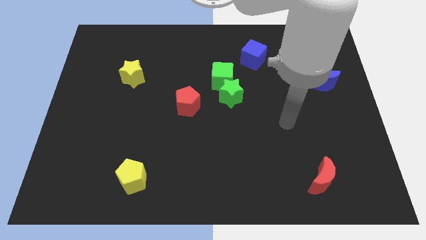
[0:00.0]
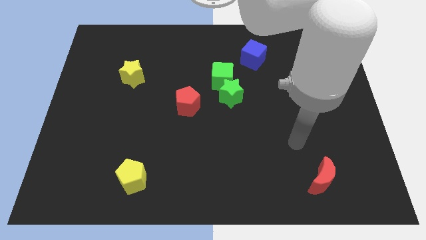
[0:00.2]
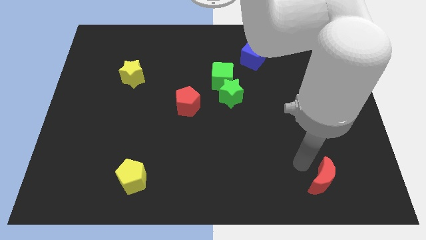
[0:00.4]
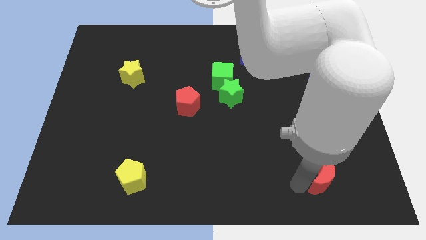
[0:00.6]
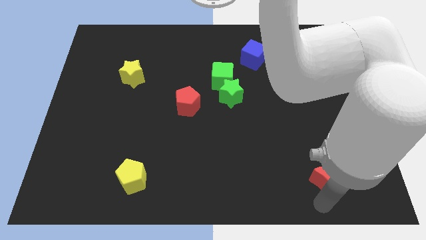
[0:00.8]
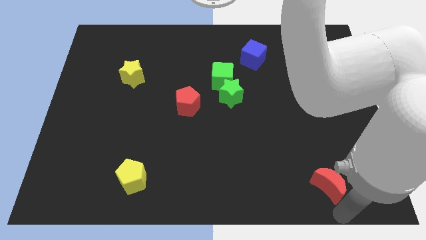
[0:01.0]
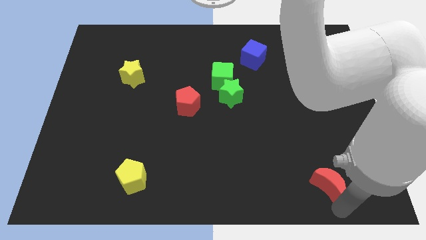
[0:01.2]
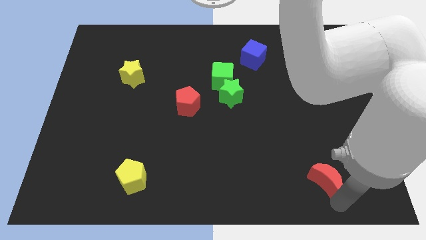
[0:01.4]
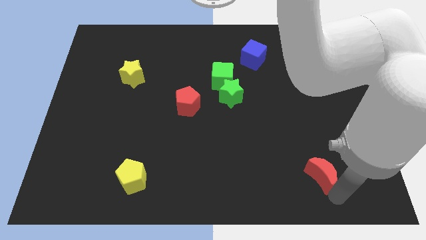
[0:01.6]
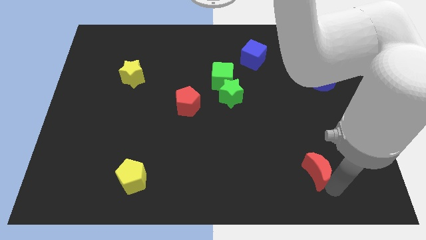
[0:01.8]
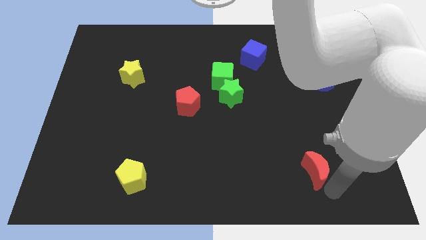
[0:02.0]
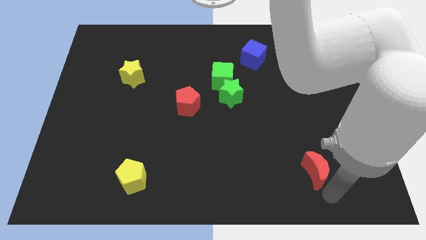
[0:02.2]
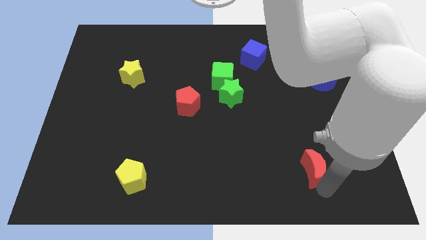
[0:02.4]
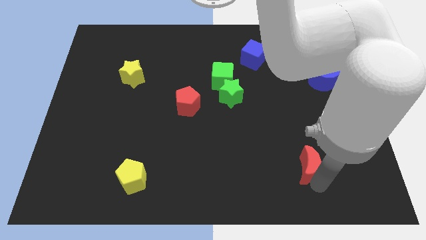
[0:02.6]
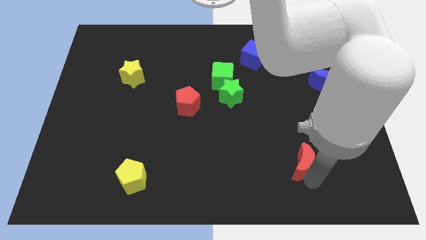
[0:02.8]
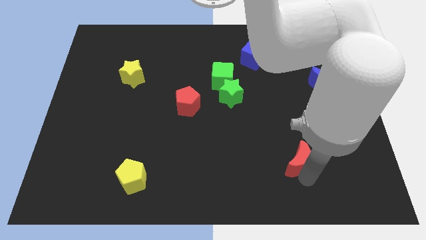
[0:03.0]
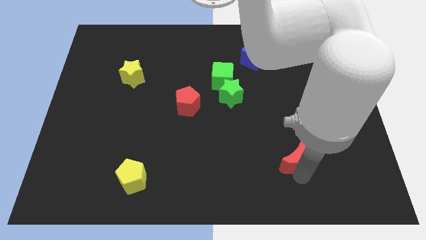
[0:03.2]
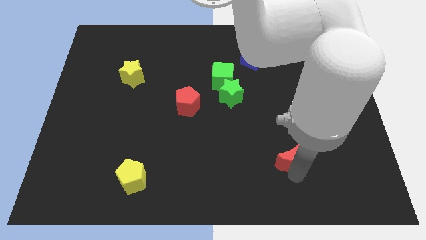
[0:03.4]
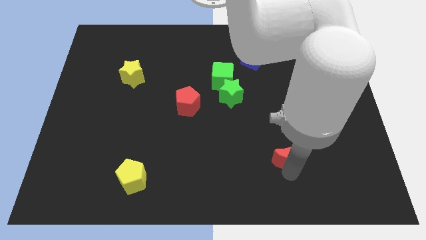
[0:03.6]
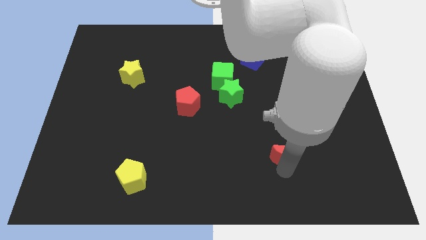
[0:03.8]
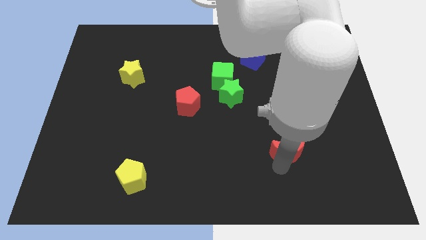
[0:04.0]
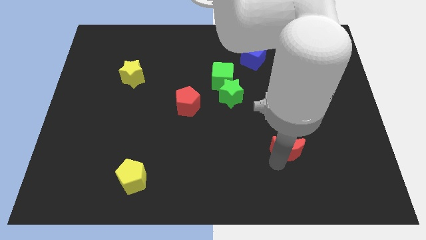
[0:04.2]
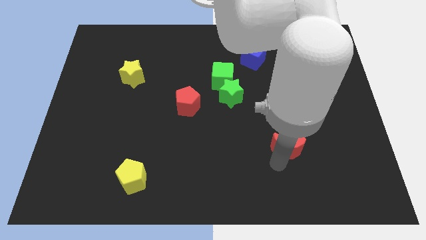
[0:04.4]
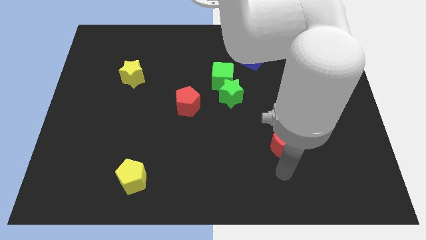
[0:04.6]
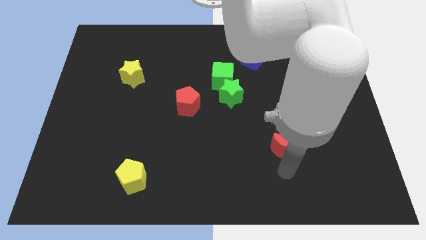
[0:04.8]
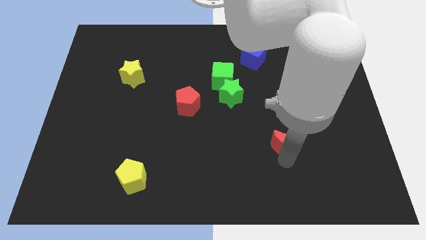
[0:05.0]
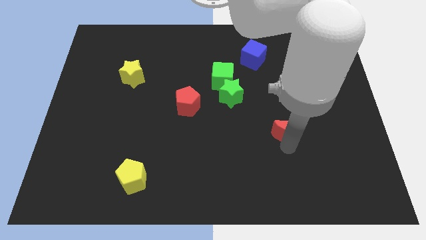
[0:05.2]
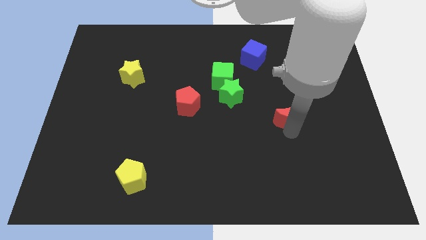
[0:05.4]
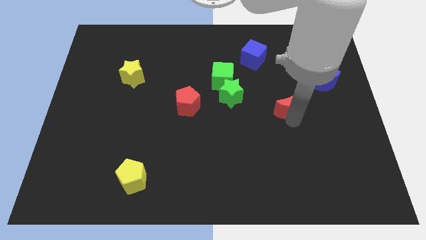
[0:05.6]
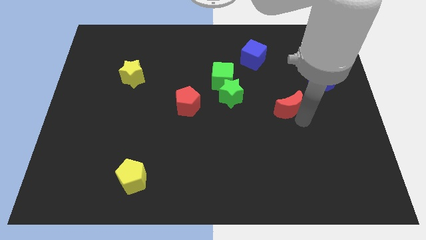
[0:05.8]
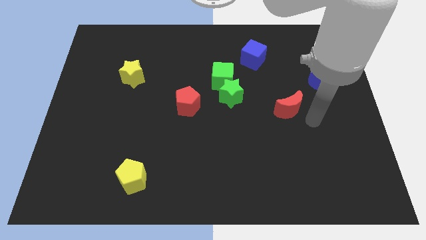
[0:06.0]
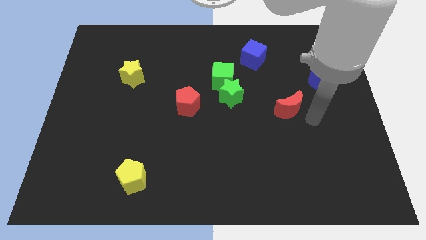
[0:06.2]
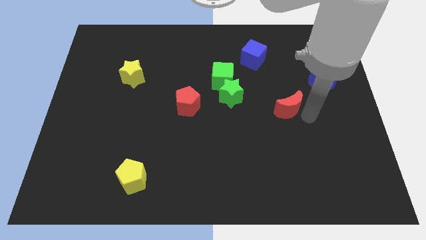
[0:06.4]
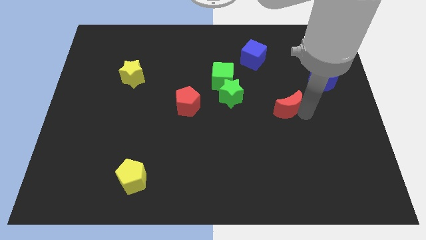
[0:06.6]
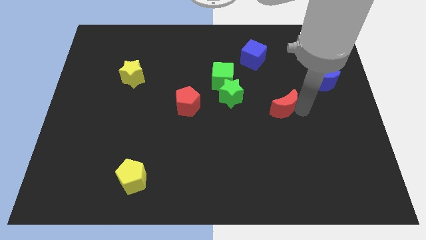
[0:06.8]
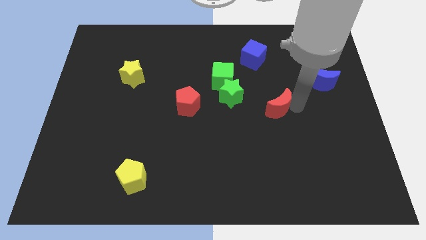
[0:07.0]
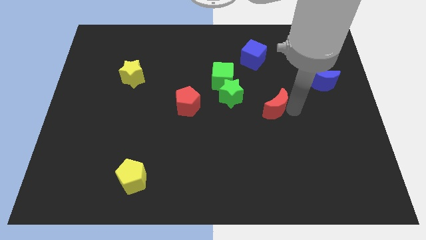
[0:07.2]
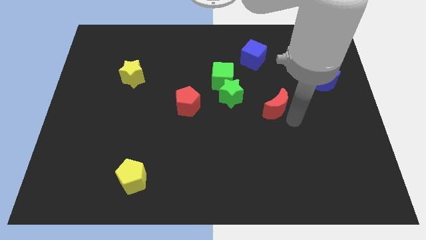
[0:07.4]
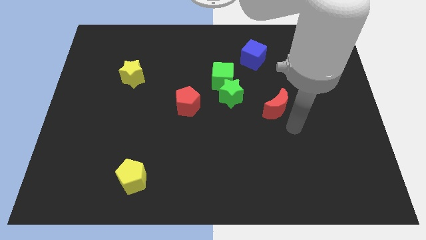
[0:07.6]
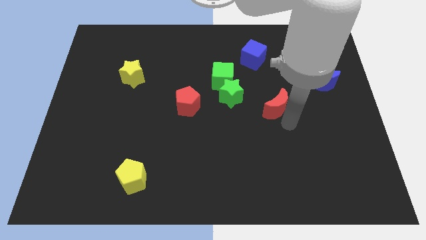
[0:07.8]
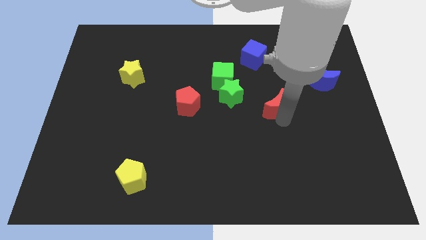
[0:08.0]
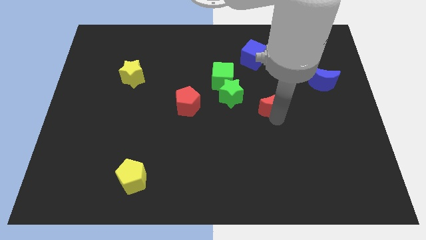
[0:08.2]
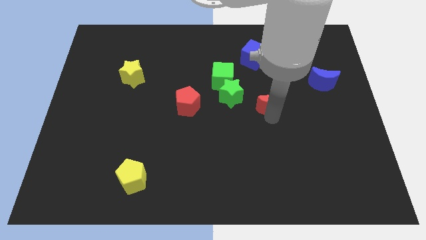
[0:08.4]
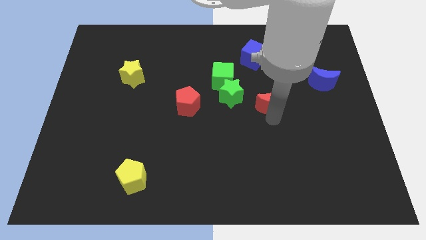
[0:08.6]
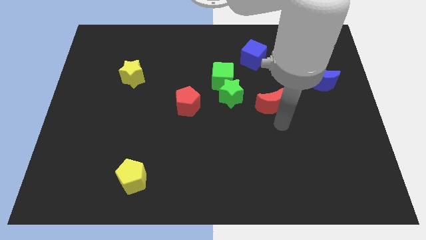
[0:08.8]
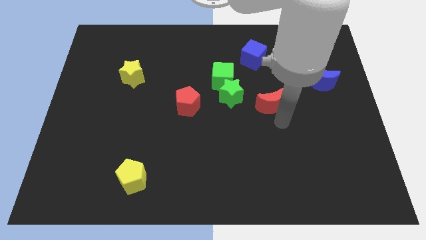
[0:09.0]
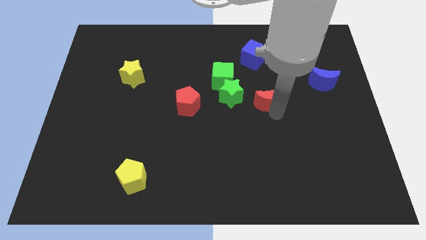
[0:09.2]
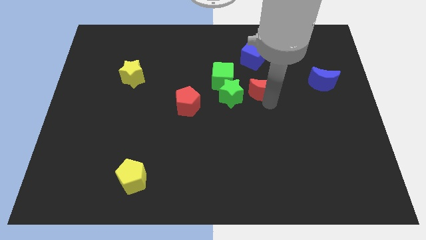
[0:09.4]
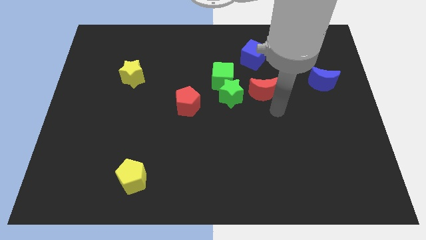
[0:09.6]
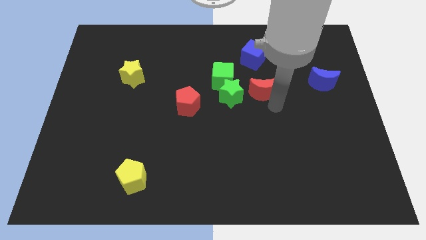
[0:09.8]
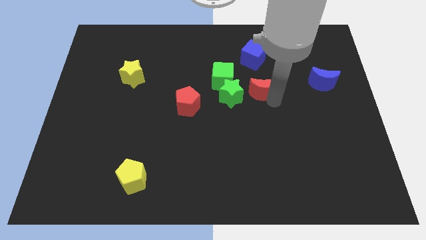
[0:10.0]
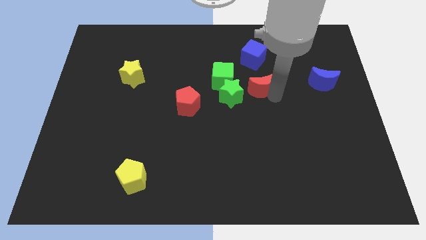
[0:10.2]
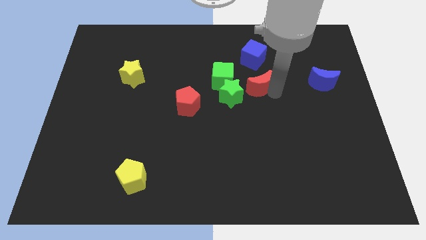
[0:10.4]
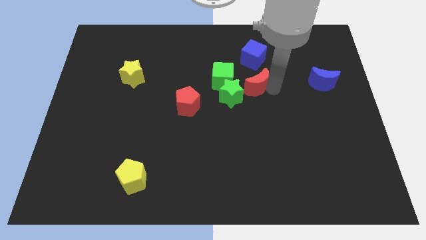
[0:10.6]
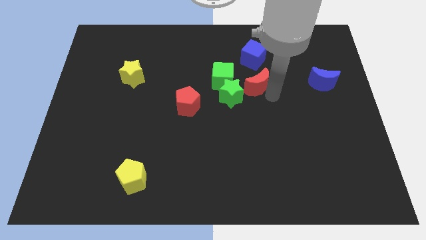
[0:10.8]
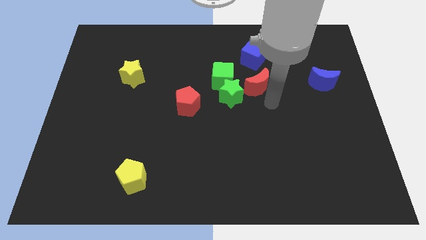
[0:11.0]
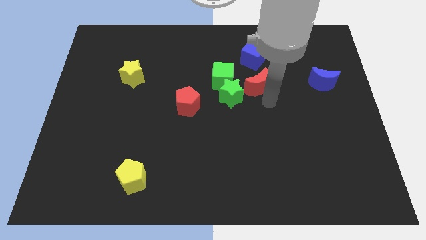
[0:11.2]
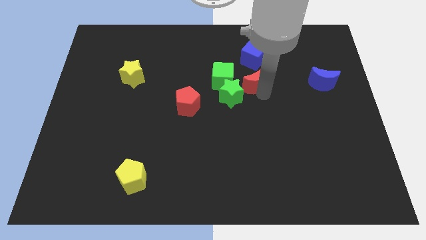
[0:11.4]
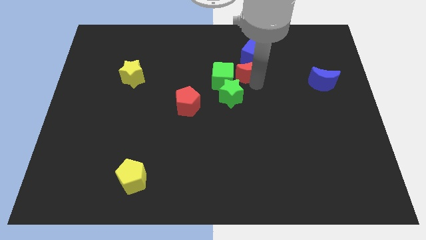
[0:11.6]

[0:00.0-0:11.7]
slide the red moon diagonally up and to the right of the green cube

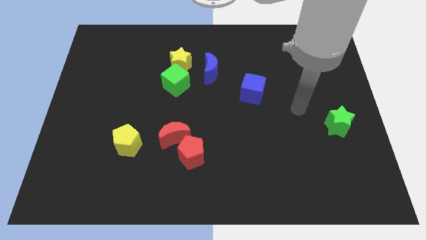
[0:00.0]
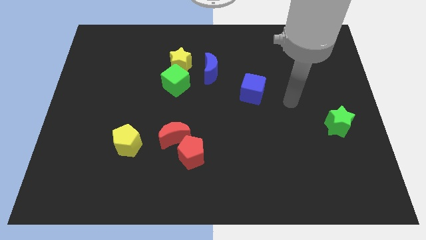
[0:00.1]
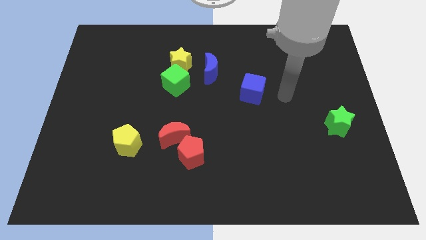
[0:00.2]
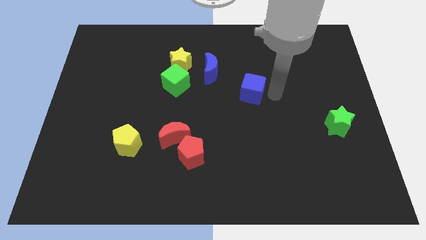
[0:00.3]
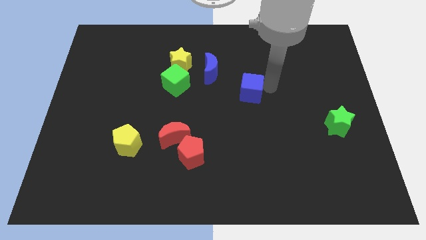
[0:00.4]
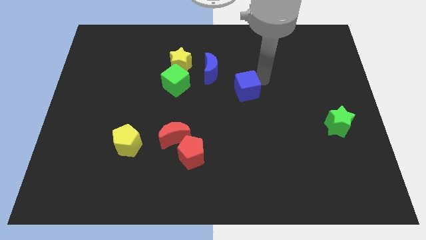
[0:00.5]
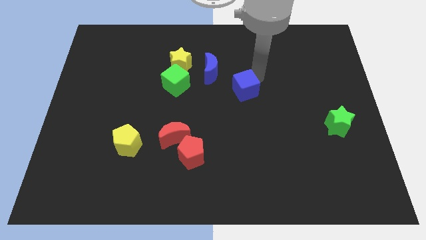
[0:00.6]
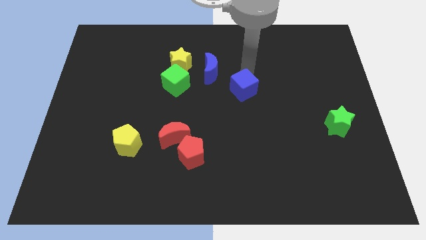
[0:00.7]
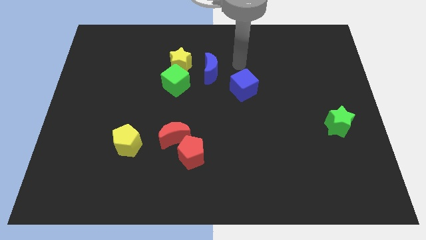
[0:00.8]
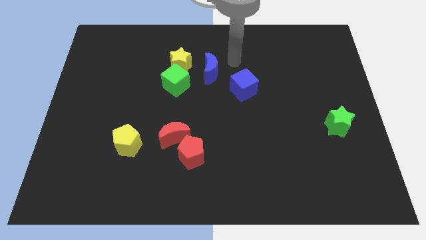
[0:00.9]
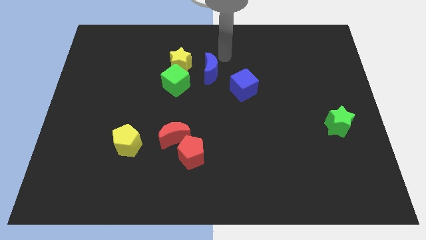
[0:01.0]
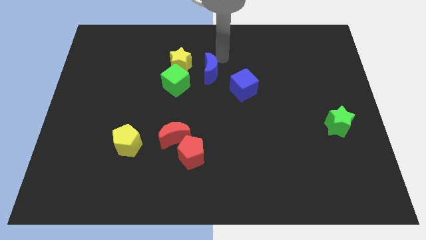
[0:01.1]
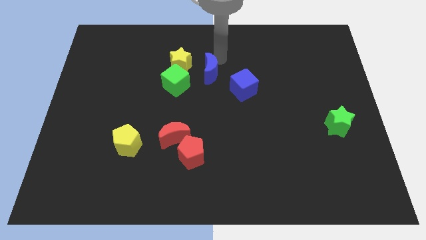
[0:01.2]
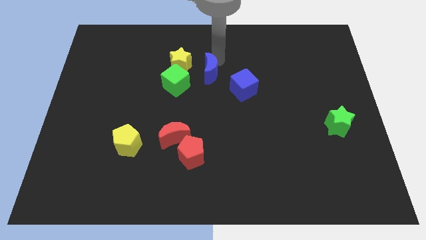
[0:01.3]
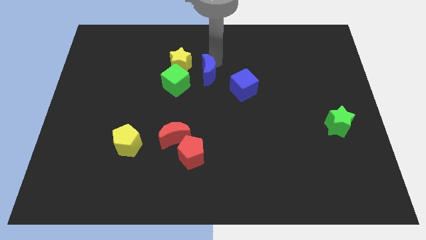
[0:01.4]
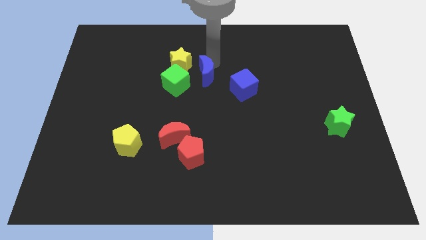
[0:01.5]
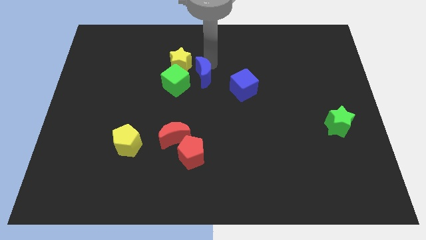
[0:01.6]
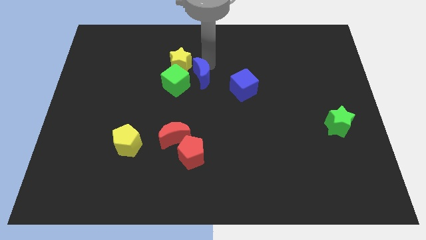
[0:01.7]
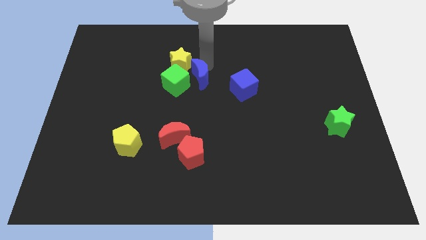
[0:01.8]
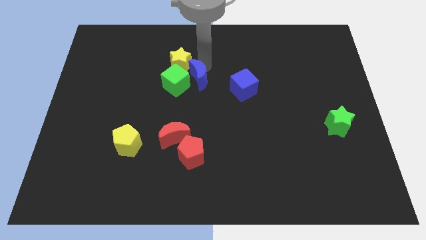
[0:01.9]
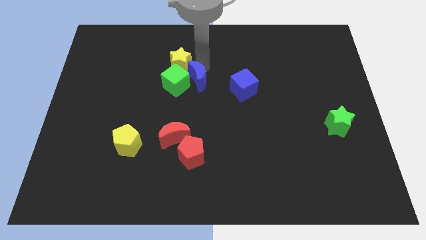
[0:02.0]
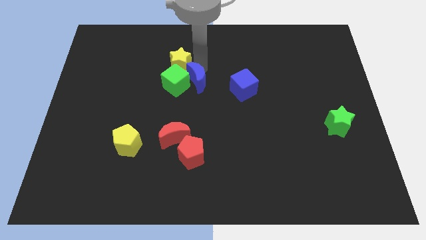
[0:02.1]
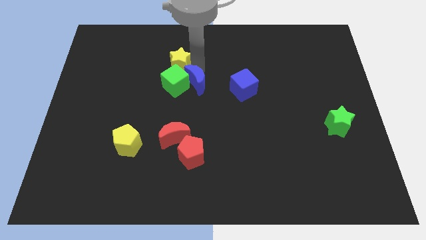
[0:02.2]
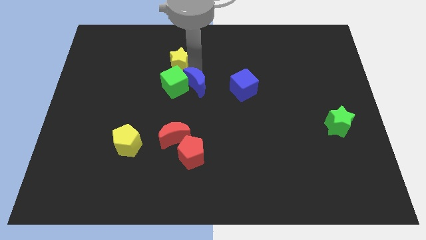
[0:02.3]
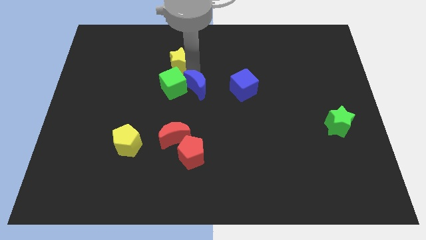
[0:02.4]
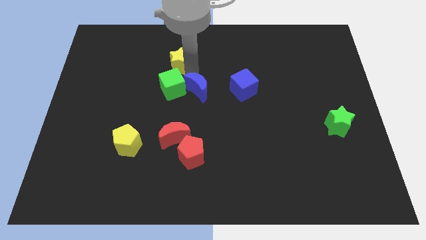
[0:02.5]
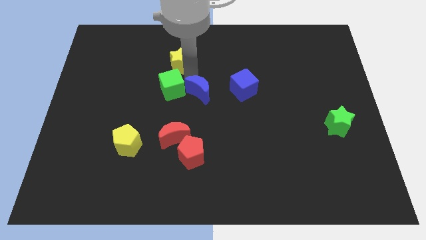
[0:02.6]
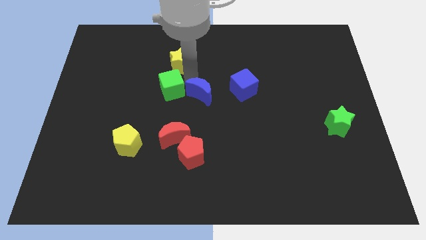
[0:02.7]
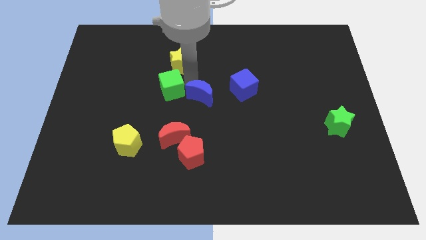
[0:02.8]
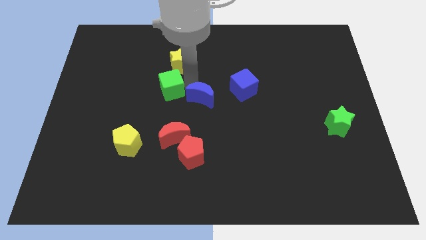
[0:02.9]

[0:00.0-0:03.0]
put the blue moon to the top of the red pentagon
